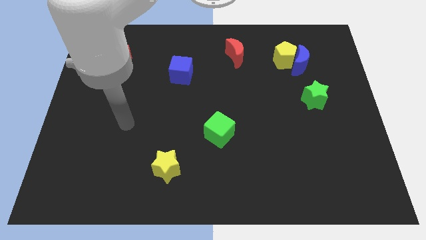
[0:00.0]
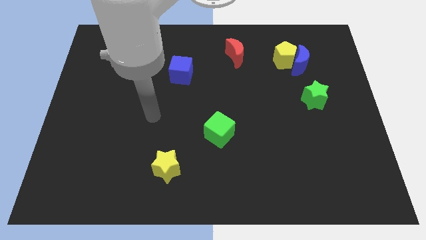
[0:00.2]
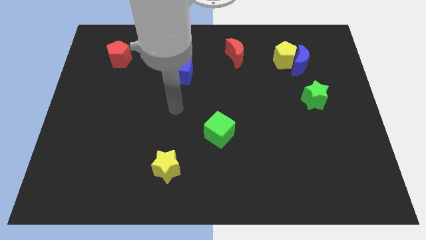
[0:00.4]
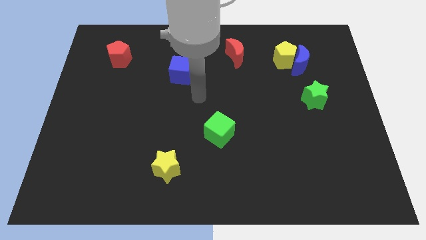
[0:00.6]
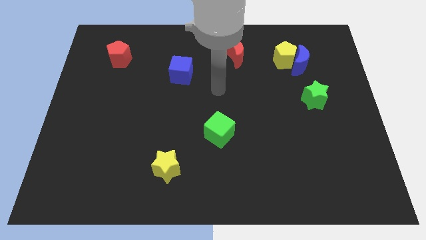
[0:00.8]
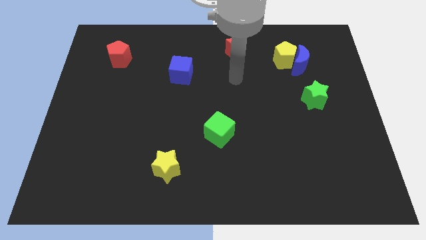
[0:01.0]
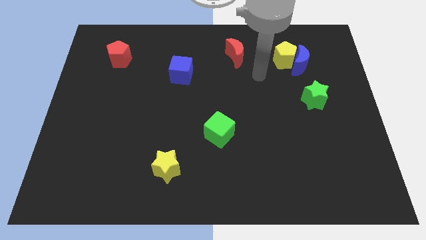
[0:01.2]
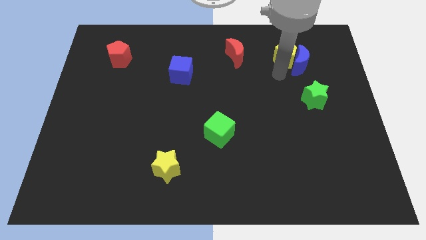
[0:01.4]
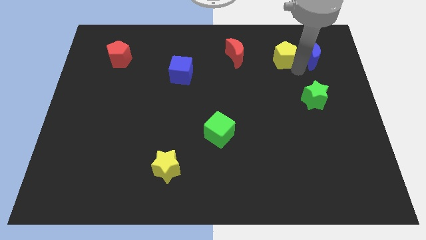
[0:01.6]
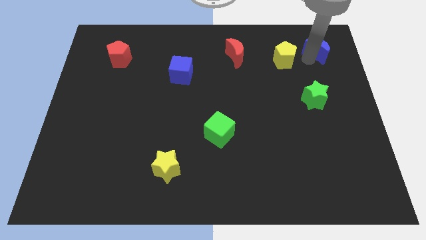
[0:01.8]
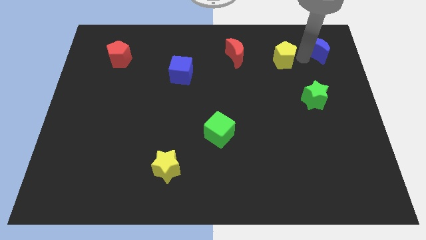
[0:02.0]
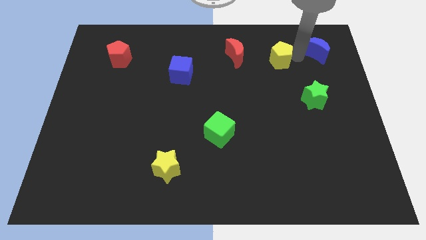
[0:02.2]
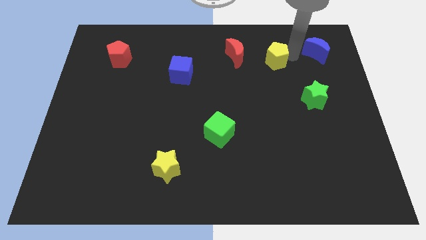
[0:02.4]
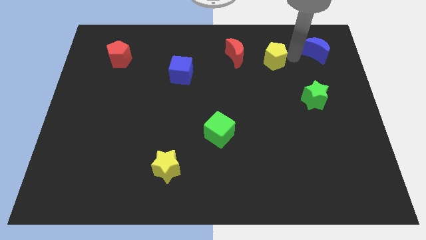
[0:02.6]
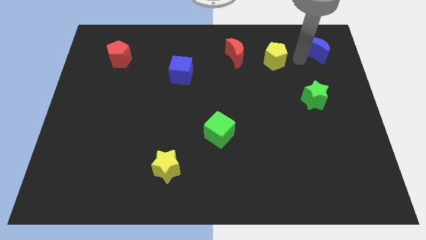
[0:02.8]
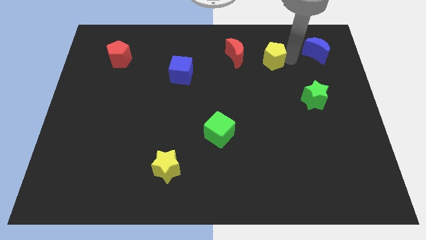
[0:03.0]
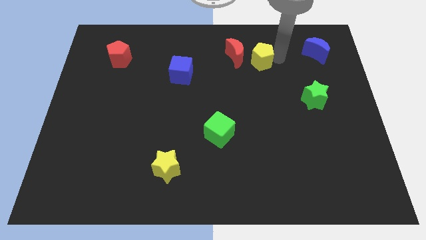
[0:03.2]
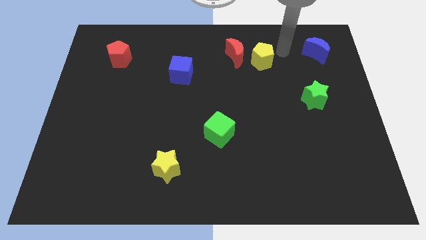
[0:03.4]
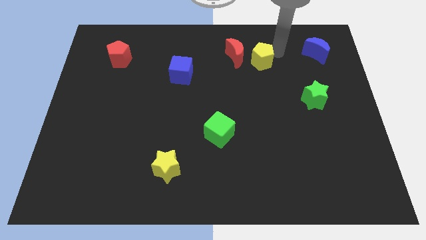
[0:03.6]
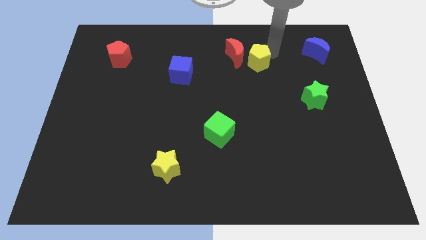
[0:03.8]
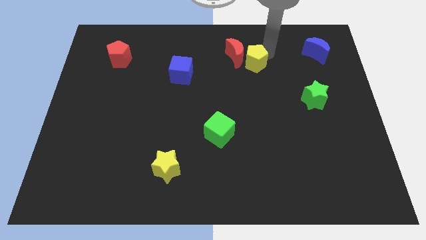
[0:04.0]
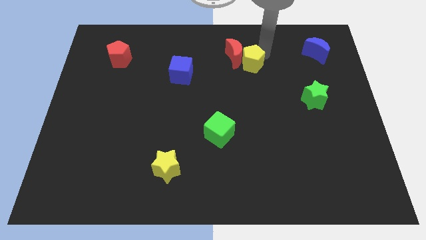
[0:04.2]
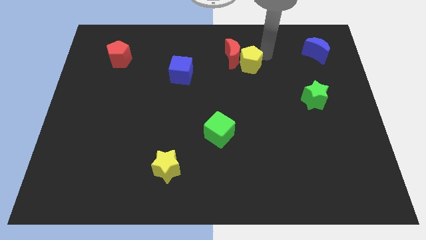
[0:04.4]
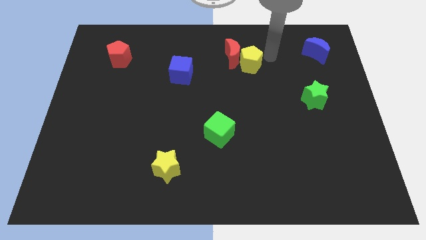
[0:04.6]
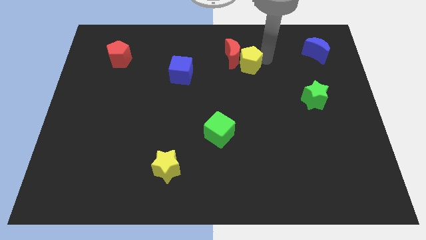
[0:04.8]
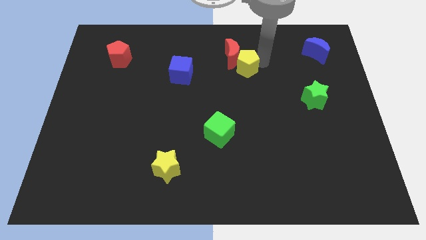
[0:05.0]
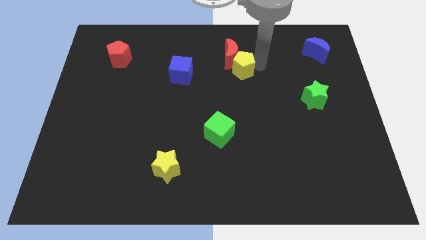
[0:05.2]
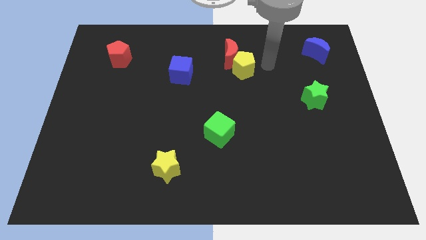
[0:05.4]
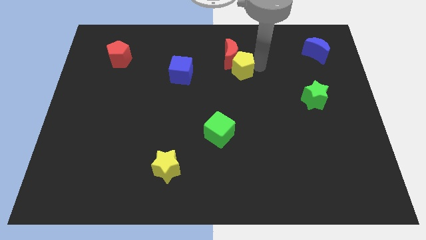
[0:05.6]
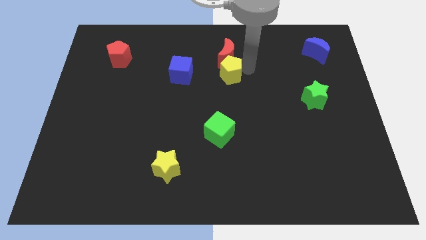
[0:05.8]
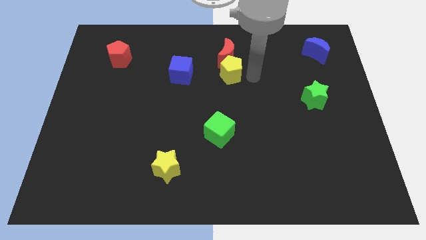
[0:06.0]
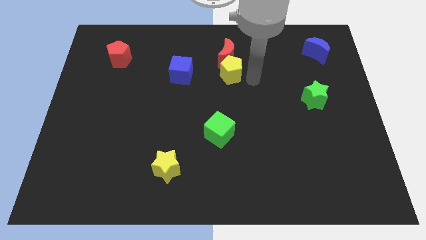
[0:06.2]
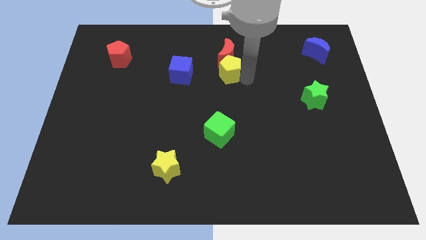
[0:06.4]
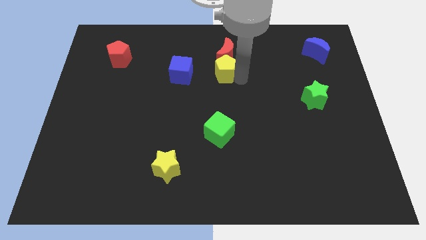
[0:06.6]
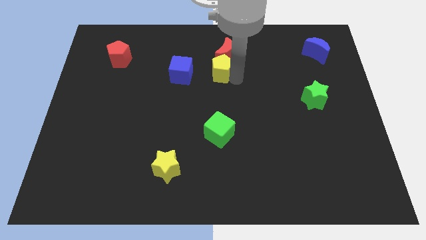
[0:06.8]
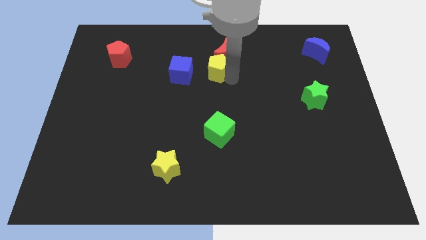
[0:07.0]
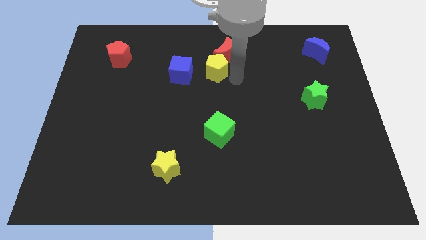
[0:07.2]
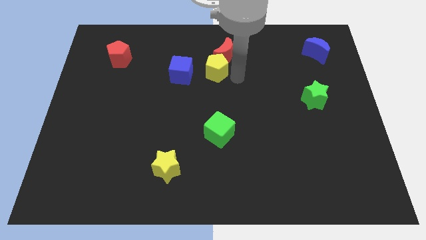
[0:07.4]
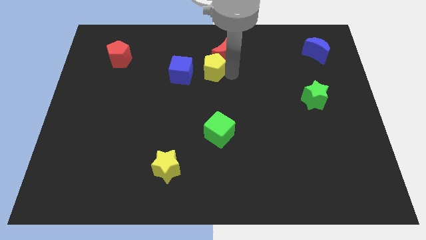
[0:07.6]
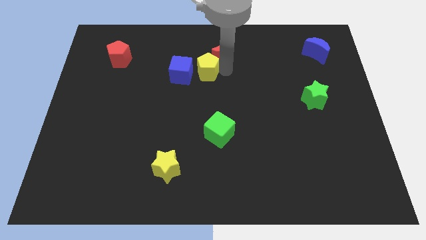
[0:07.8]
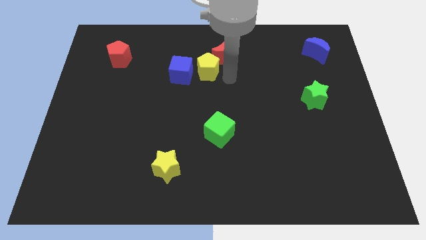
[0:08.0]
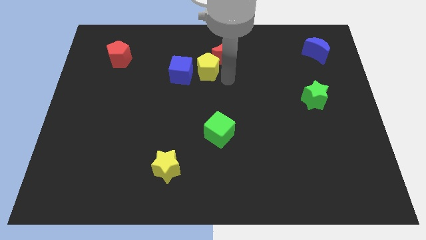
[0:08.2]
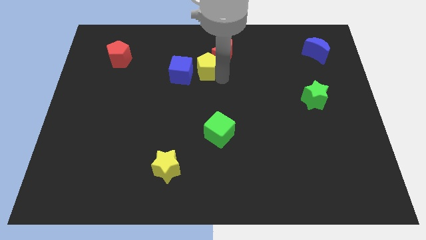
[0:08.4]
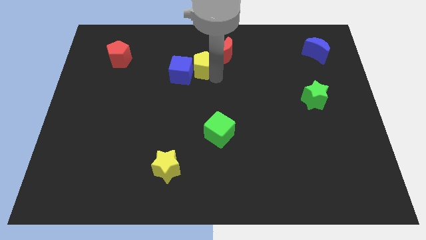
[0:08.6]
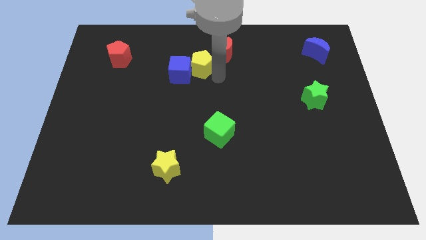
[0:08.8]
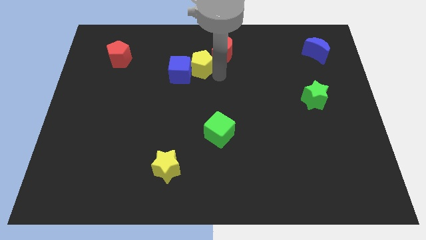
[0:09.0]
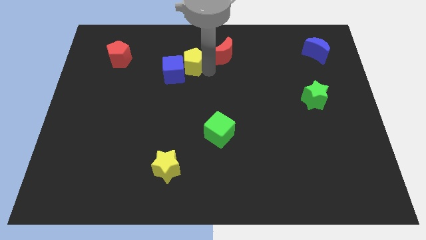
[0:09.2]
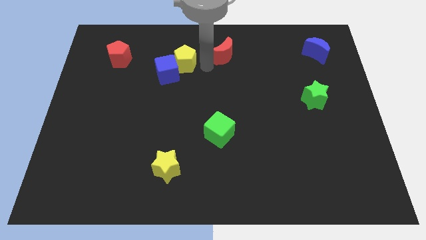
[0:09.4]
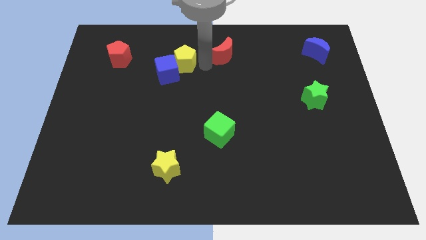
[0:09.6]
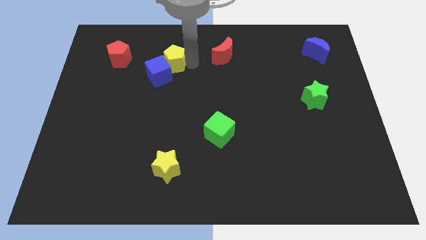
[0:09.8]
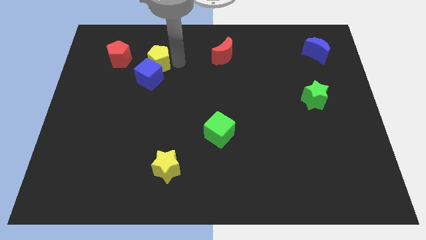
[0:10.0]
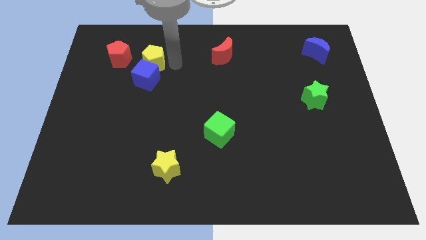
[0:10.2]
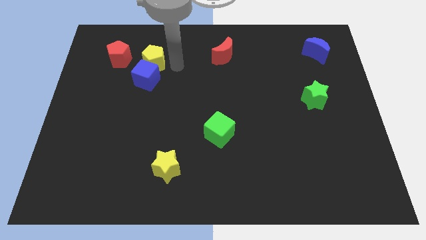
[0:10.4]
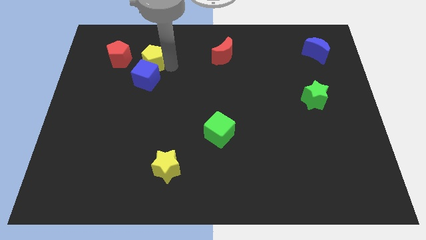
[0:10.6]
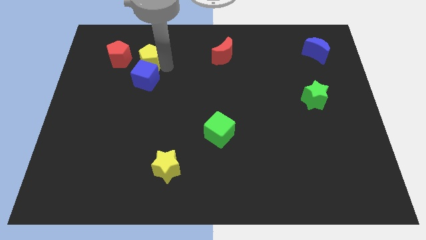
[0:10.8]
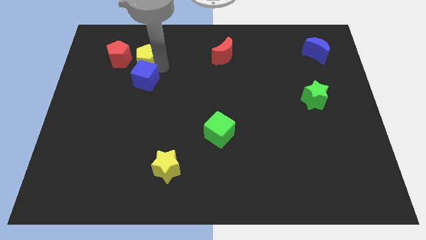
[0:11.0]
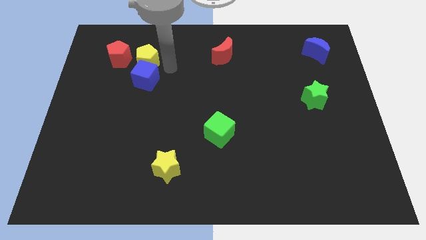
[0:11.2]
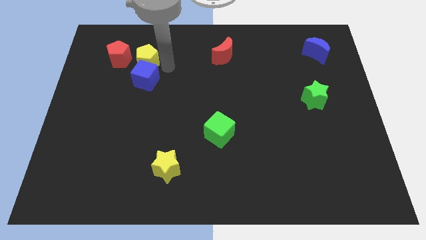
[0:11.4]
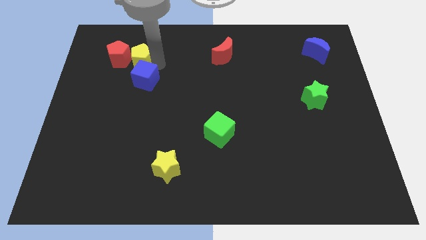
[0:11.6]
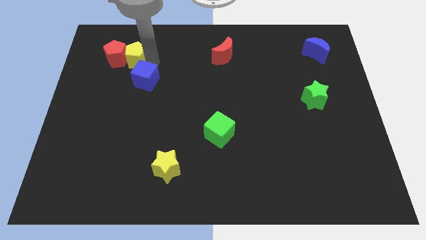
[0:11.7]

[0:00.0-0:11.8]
push the yellow pentagon to the red pentagon

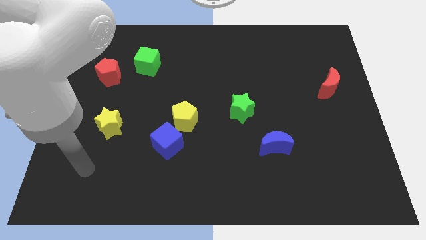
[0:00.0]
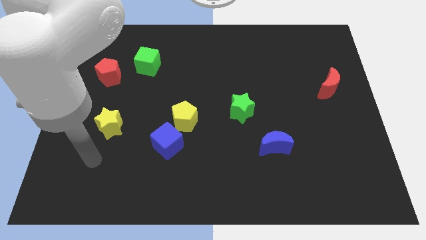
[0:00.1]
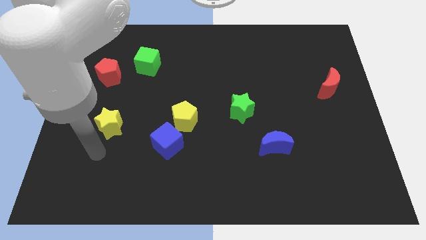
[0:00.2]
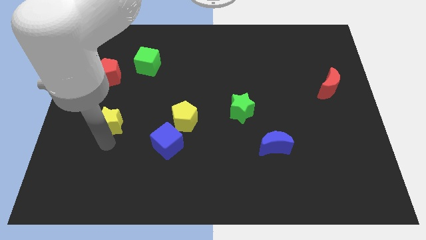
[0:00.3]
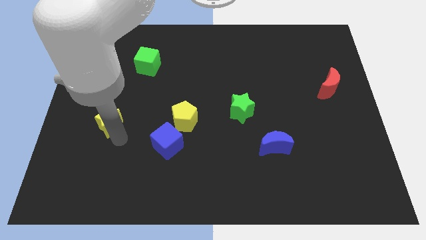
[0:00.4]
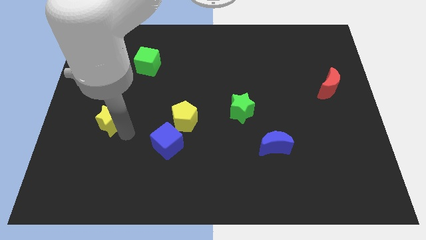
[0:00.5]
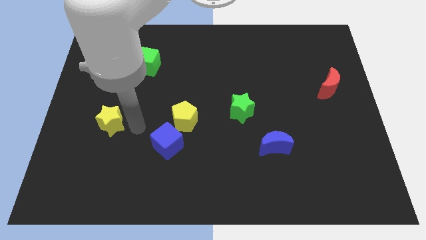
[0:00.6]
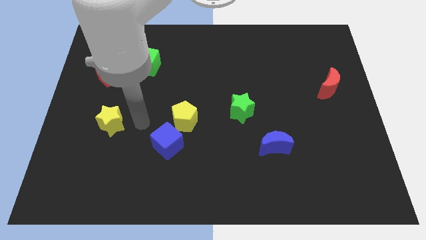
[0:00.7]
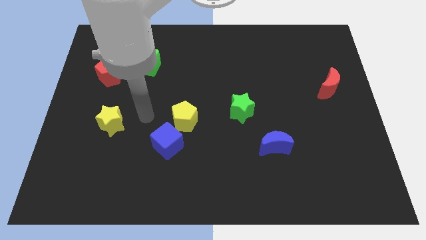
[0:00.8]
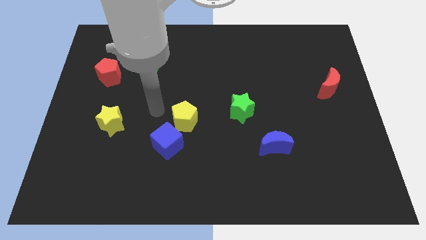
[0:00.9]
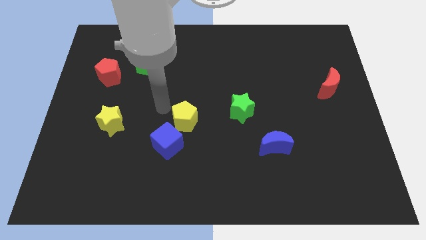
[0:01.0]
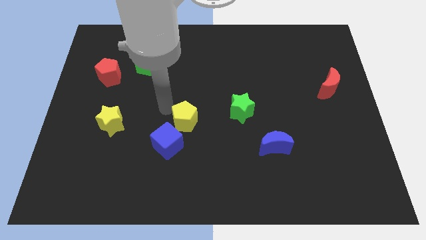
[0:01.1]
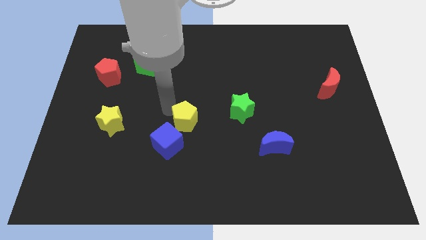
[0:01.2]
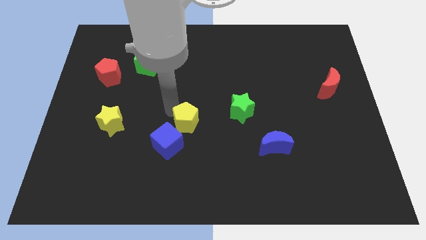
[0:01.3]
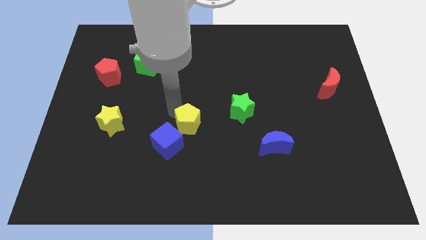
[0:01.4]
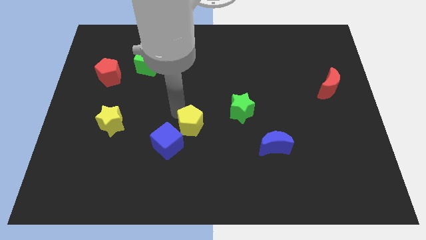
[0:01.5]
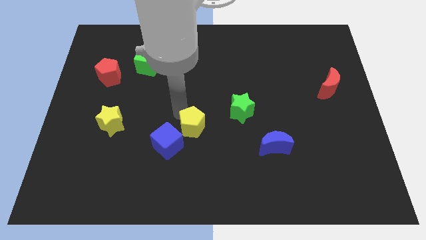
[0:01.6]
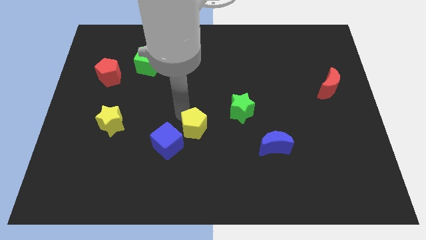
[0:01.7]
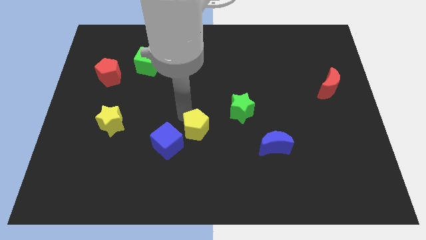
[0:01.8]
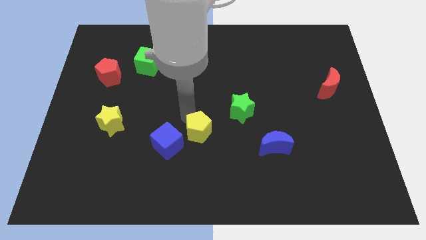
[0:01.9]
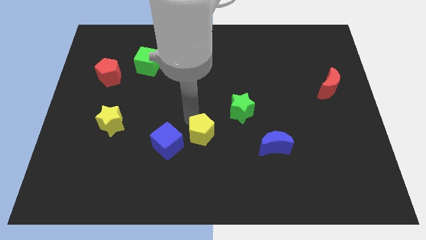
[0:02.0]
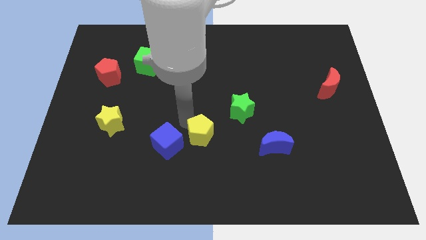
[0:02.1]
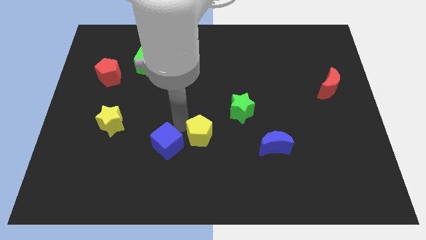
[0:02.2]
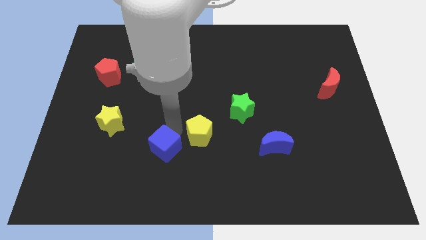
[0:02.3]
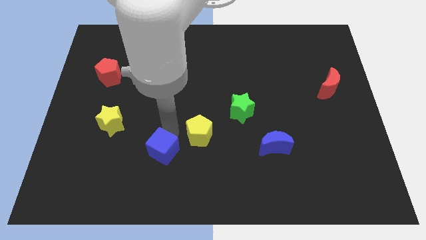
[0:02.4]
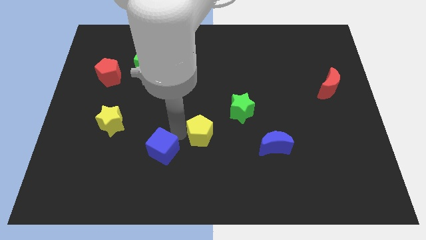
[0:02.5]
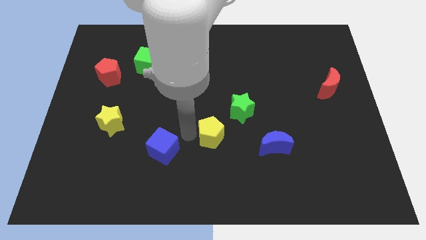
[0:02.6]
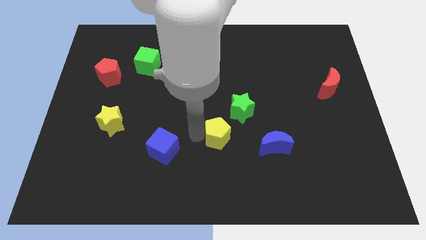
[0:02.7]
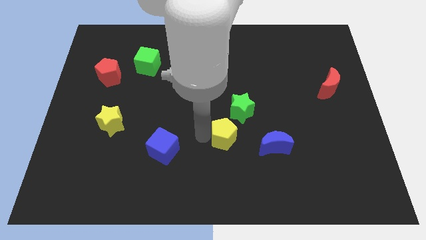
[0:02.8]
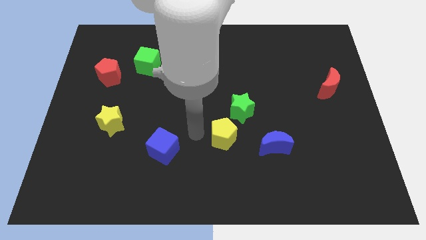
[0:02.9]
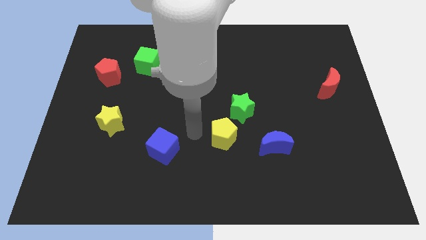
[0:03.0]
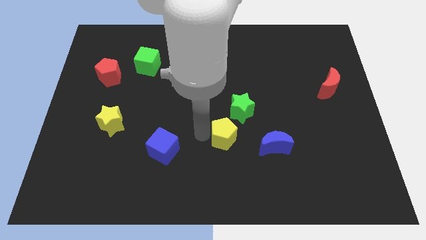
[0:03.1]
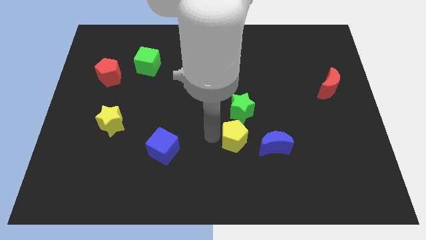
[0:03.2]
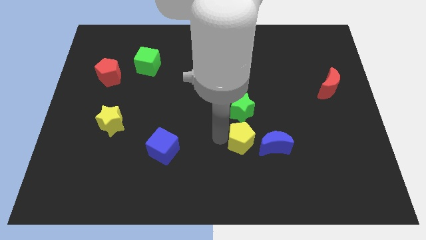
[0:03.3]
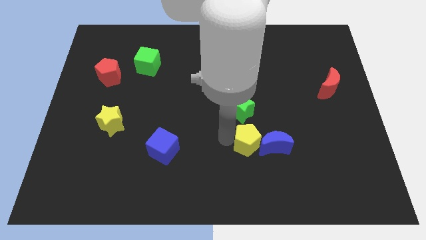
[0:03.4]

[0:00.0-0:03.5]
put the yellow pentagon to the blue moon
